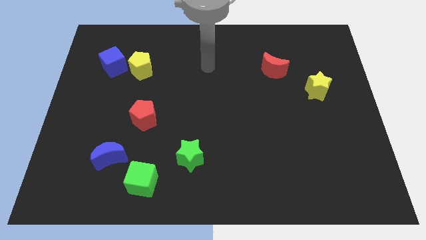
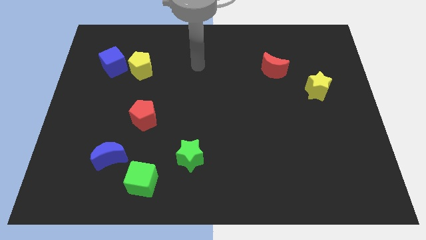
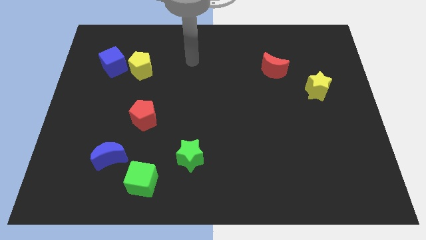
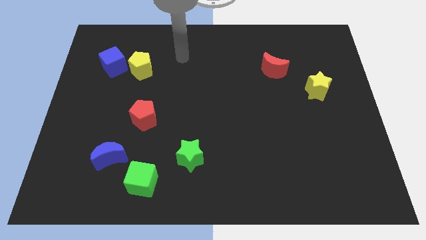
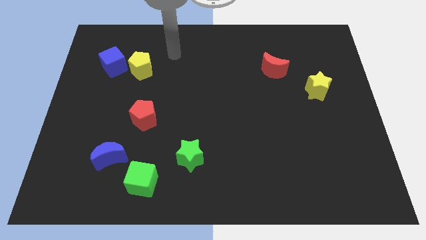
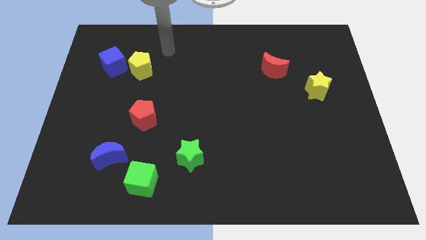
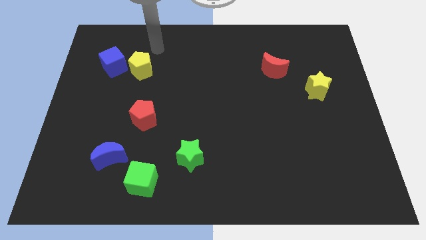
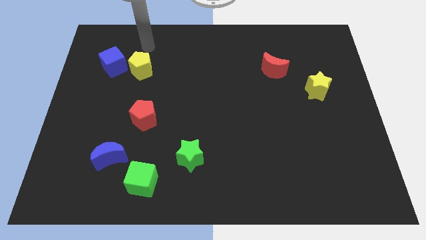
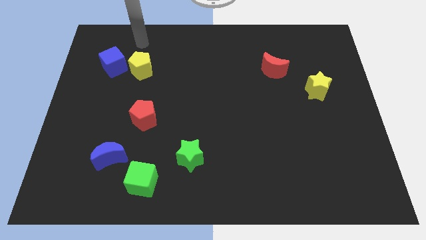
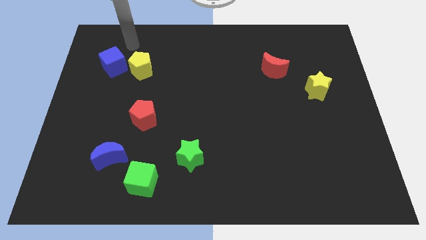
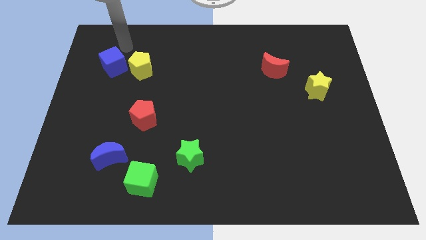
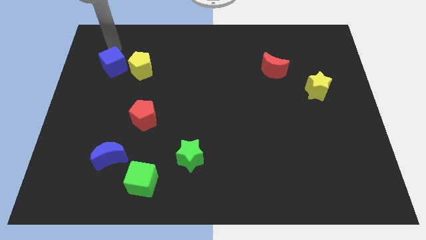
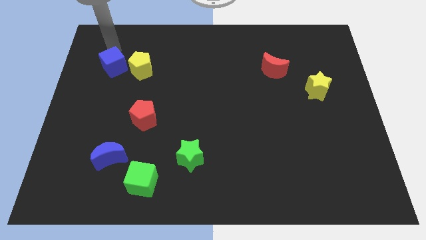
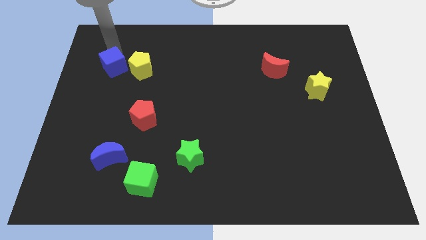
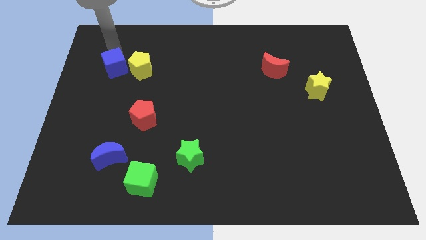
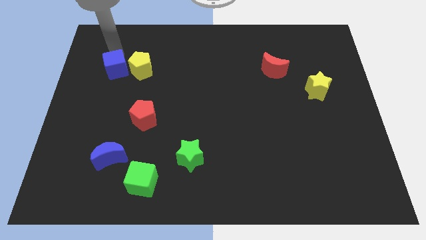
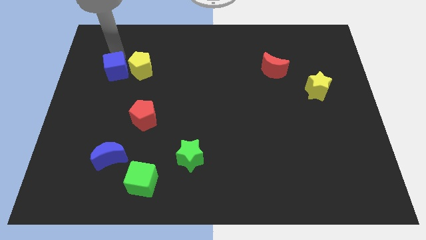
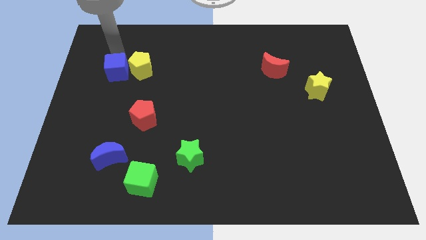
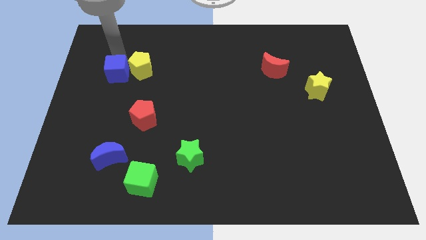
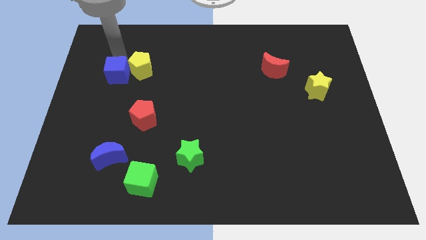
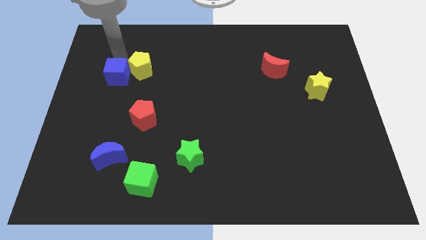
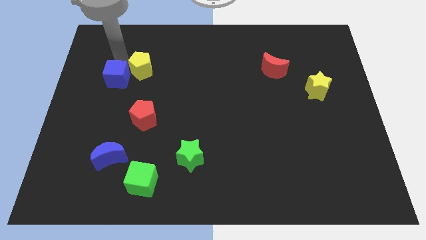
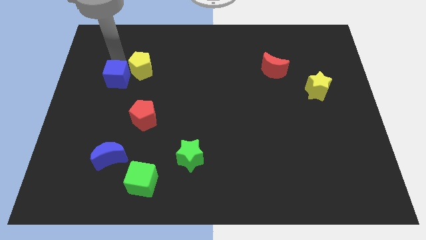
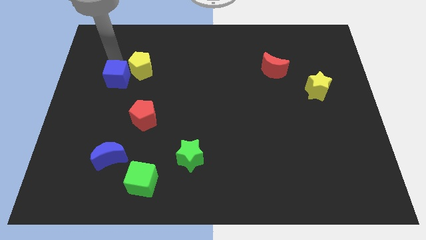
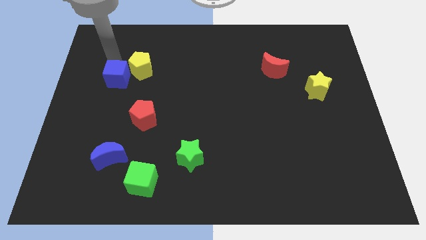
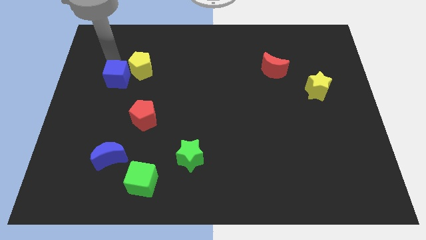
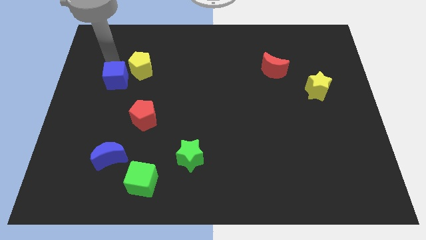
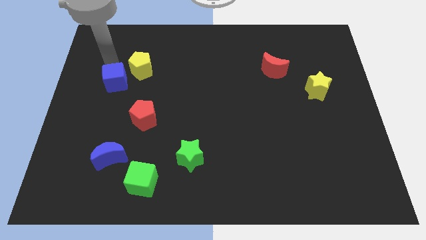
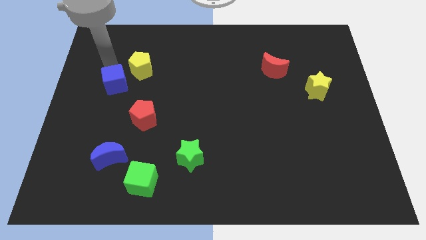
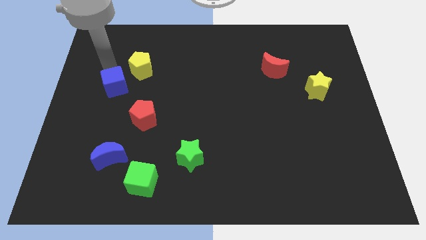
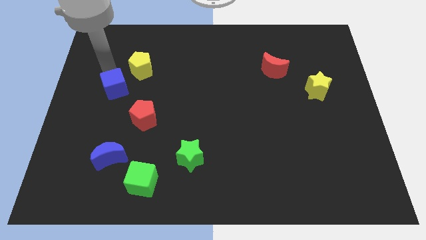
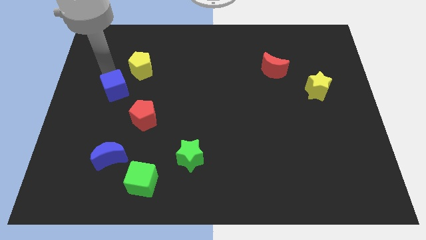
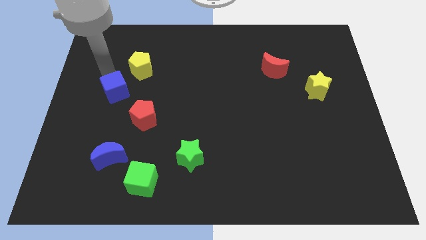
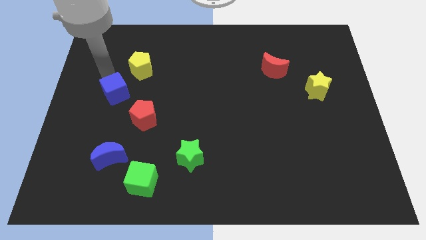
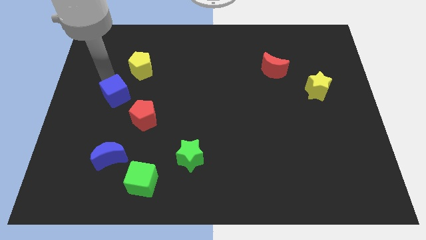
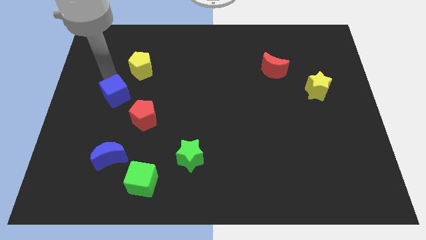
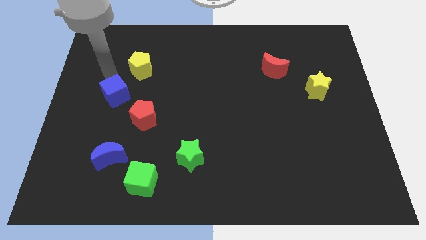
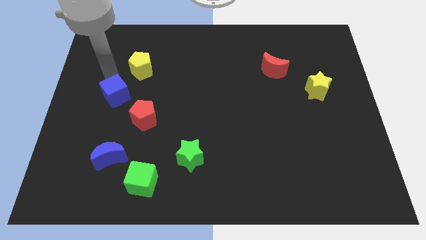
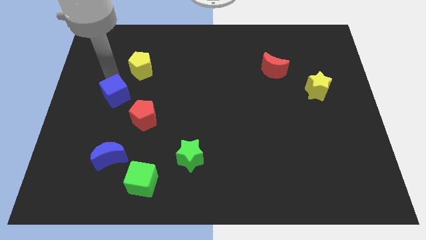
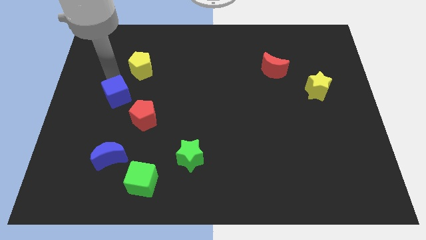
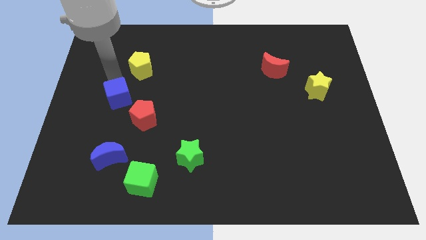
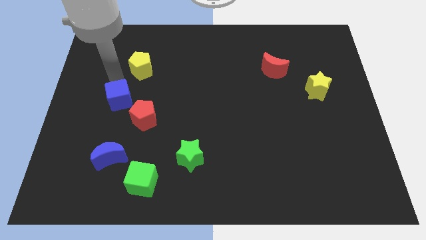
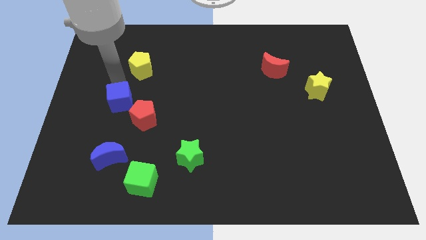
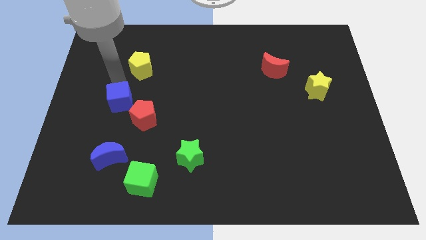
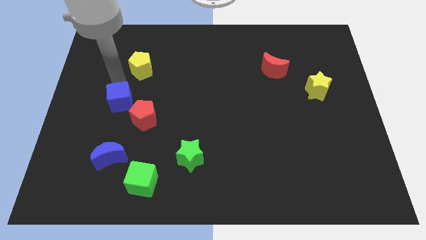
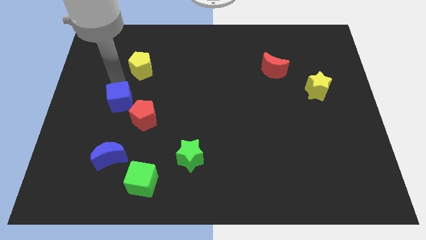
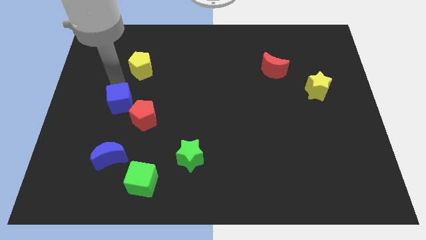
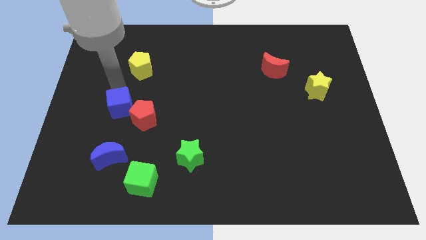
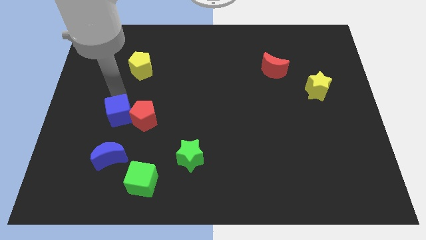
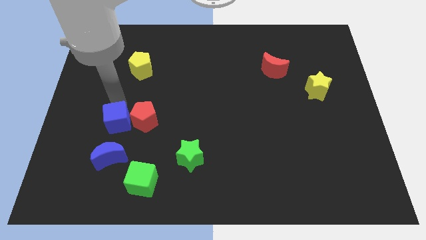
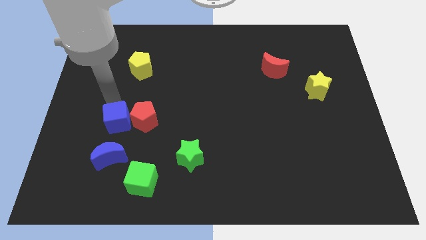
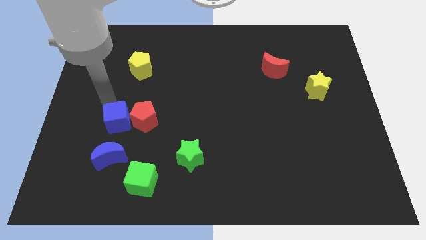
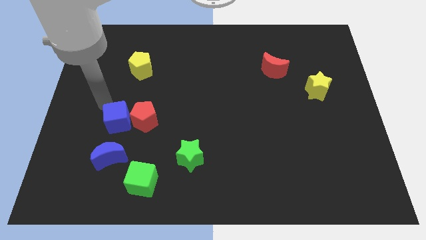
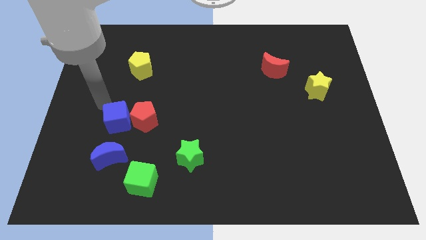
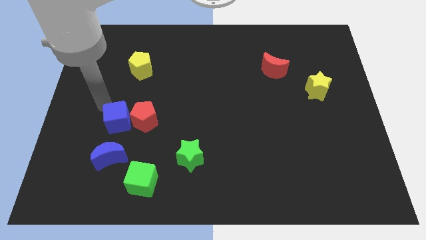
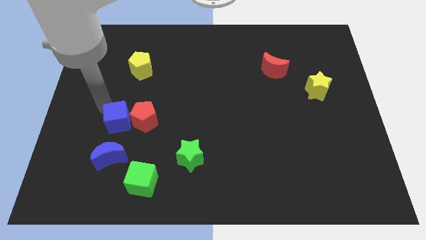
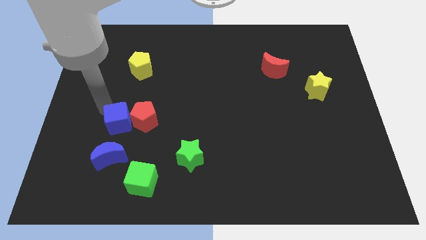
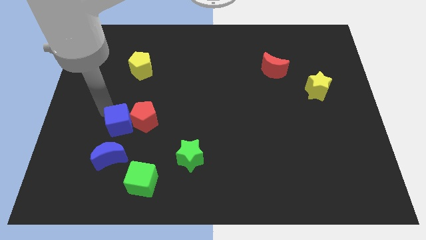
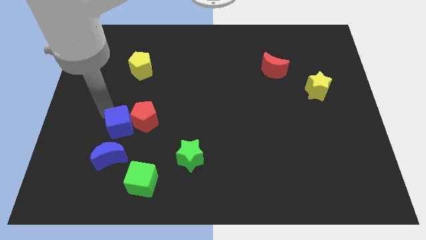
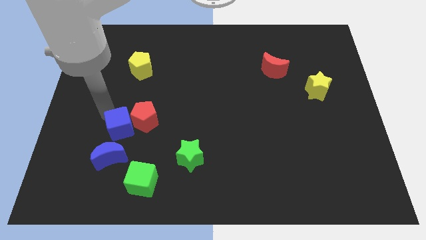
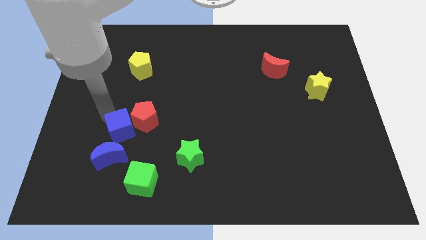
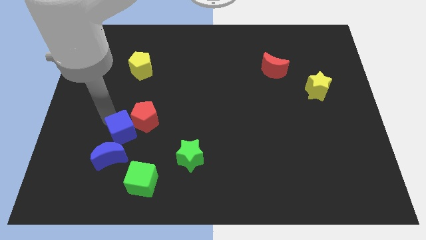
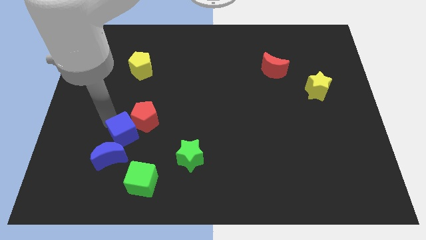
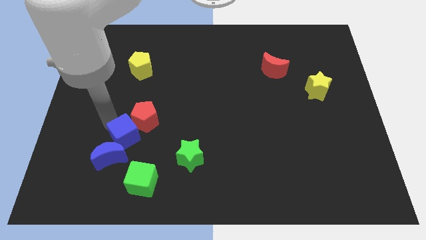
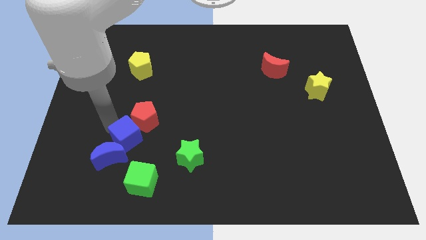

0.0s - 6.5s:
put the blue cube to the top of the green cube

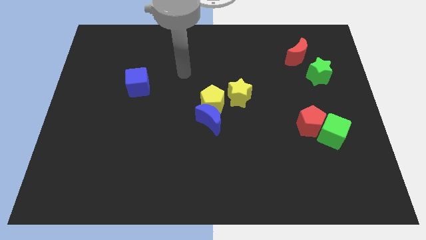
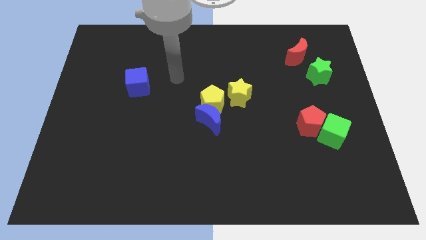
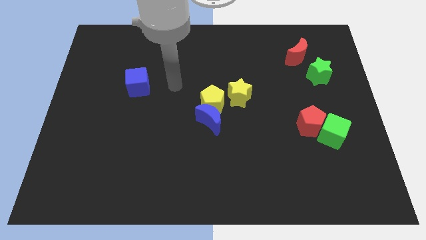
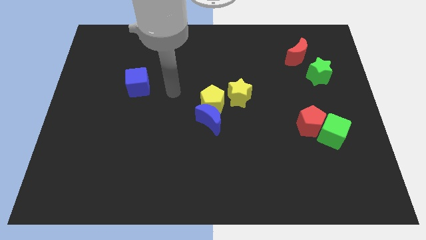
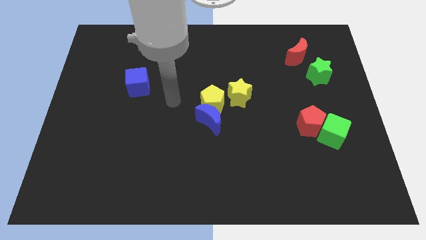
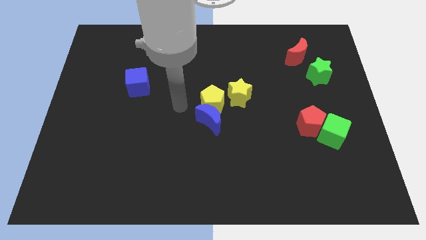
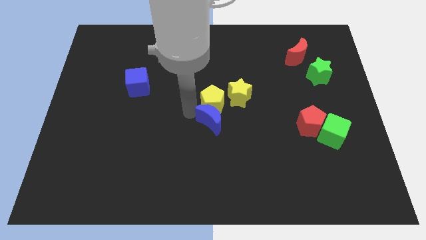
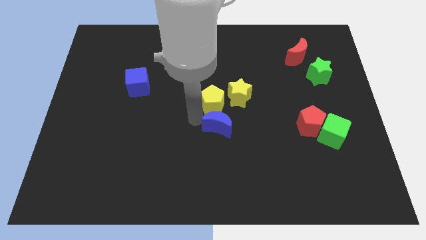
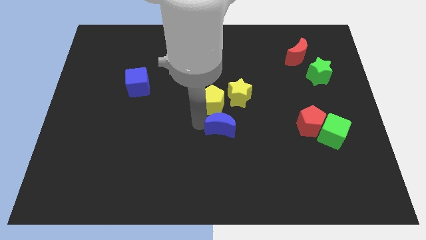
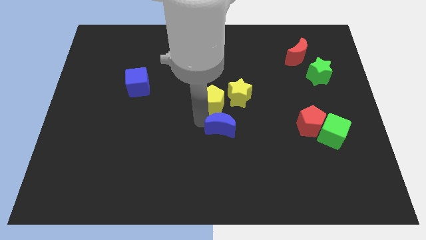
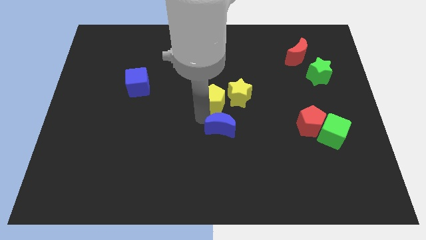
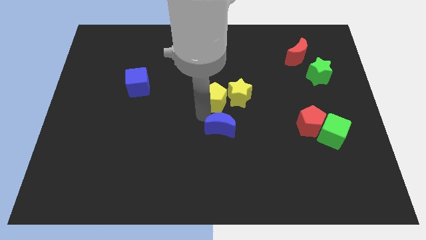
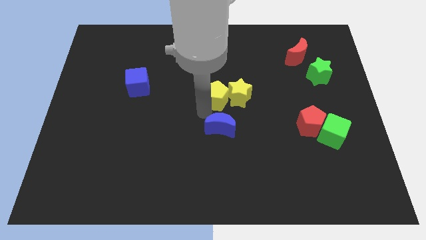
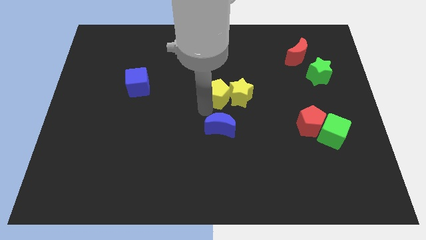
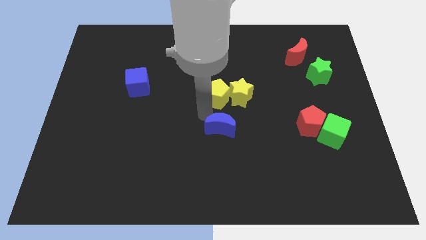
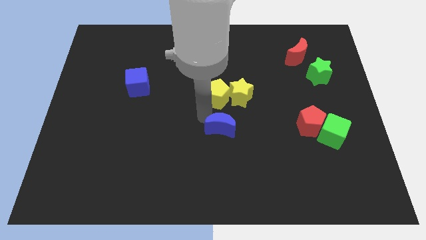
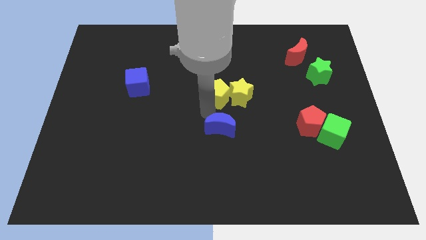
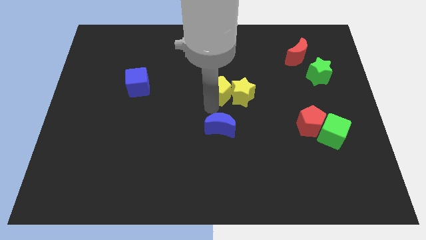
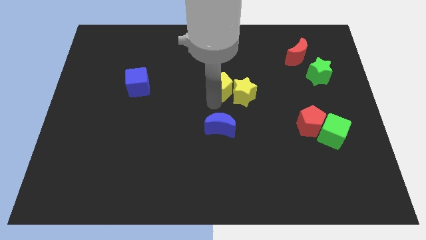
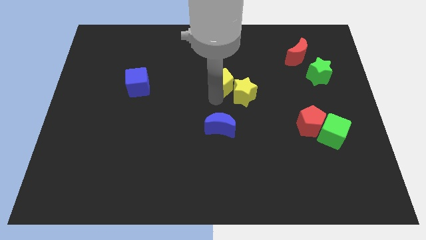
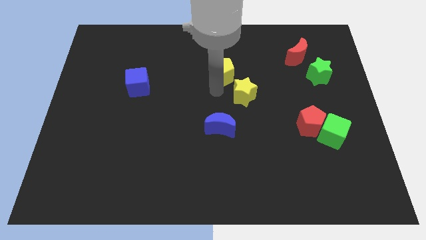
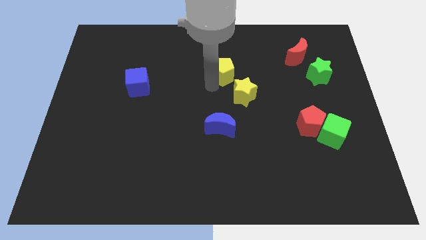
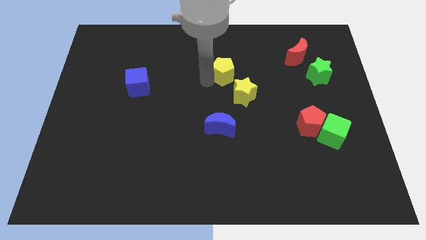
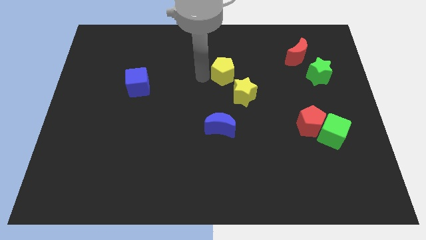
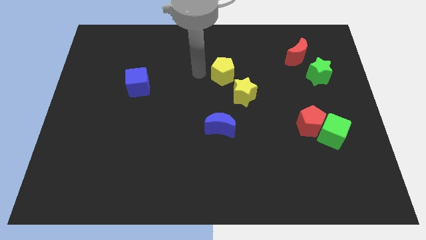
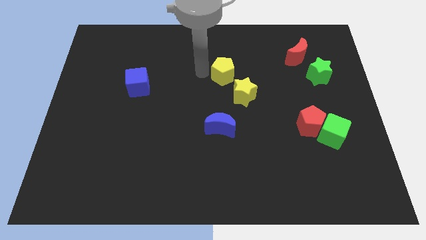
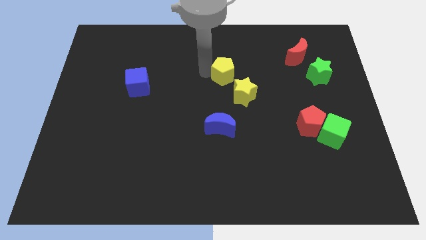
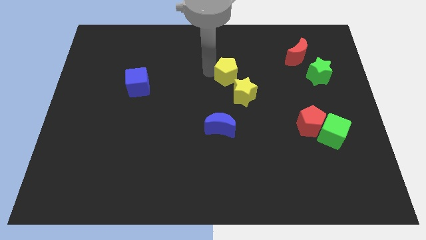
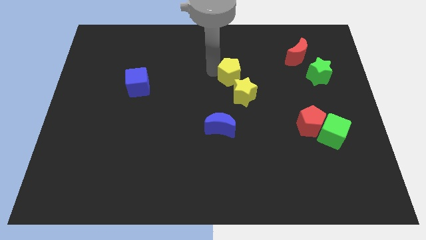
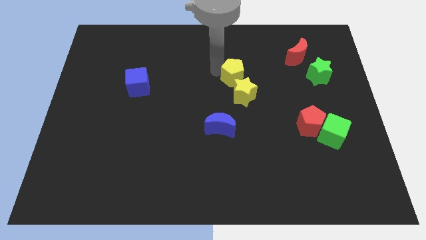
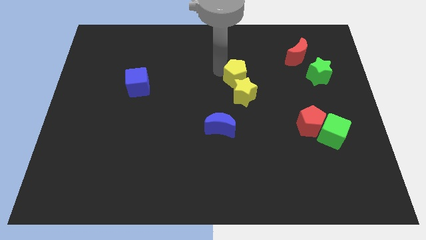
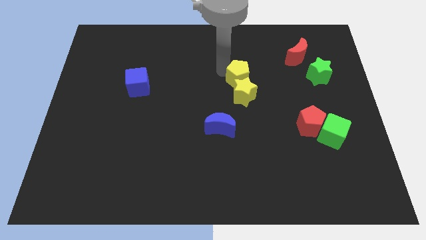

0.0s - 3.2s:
put the yellow pentagon to the top right of the yellow star
